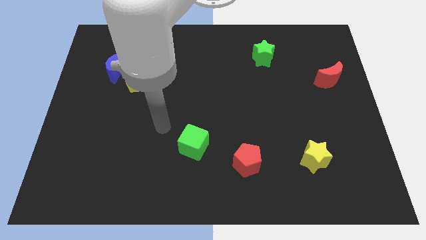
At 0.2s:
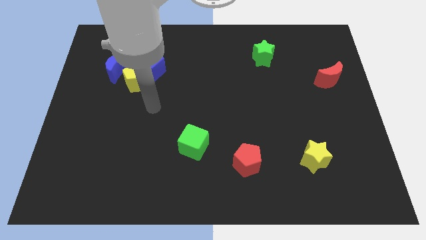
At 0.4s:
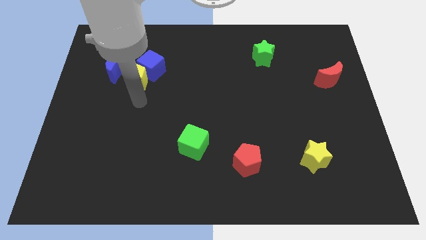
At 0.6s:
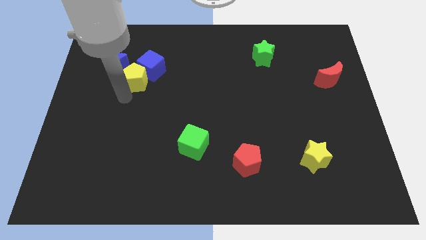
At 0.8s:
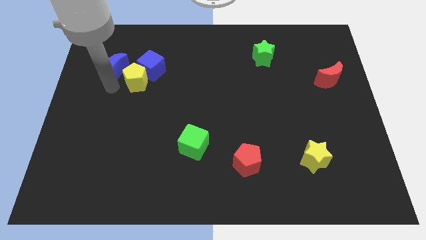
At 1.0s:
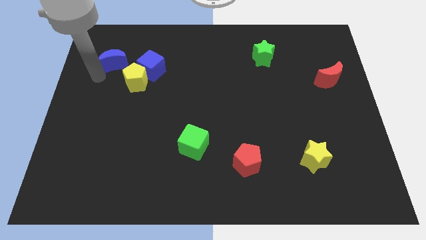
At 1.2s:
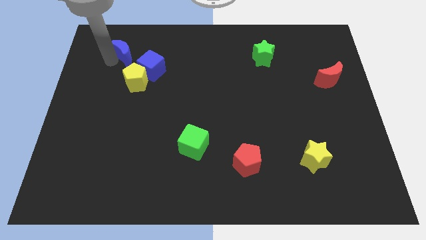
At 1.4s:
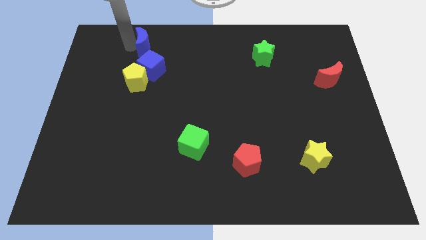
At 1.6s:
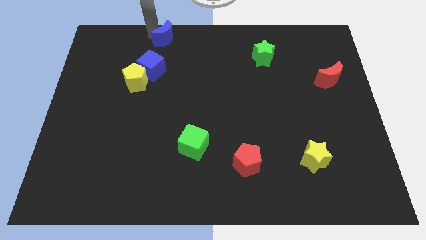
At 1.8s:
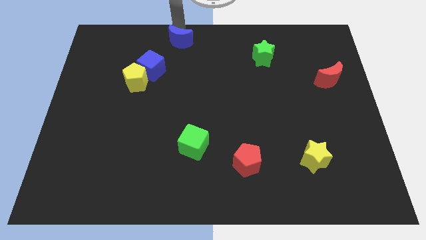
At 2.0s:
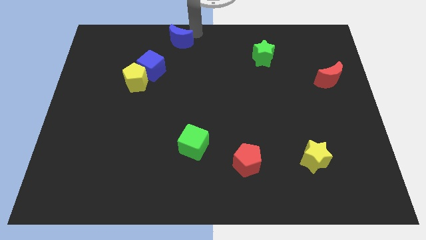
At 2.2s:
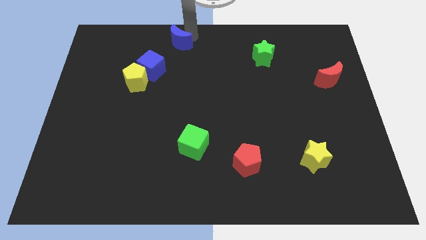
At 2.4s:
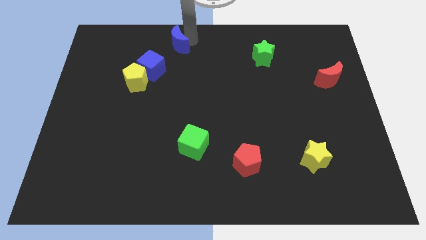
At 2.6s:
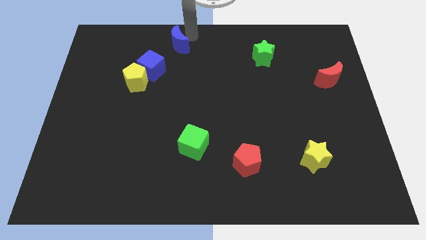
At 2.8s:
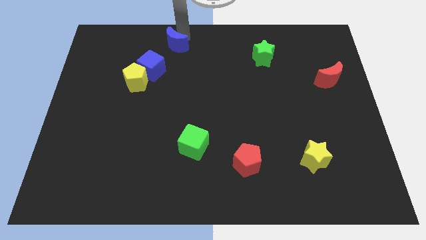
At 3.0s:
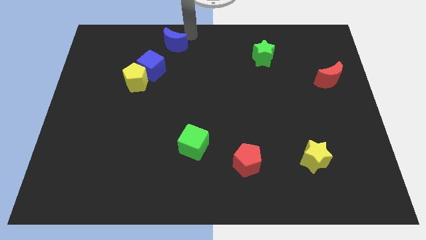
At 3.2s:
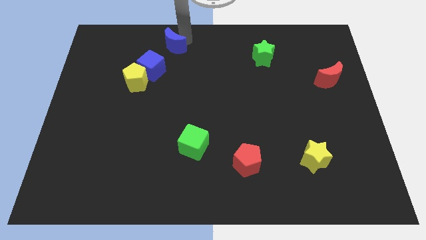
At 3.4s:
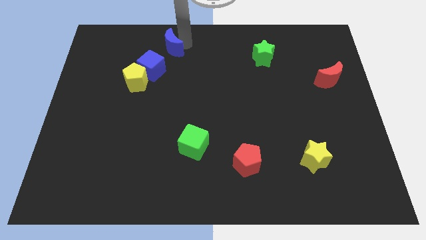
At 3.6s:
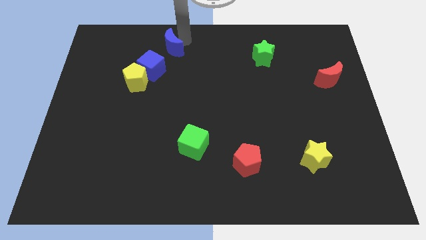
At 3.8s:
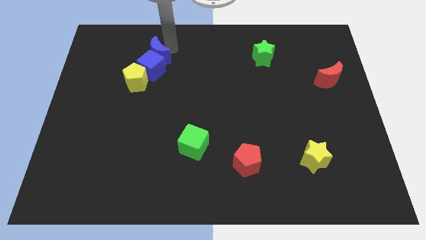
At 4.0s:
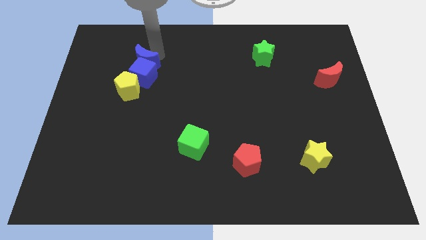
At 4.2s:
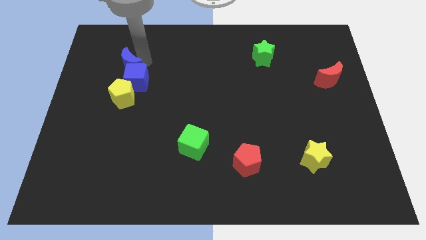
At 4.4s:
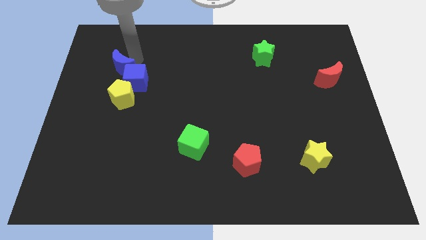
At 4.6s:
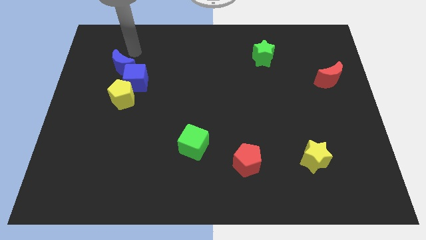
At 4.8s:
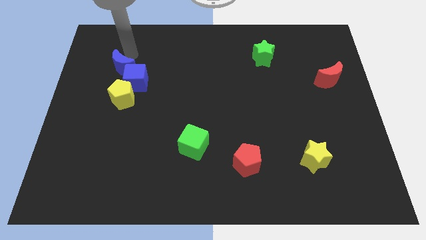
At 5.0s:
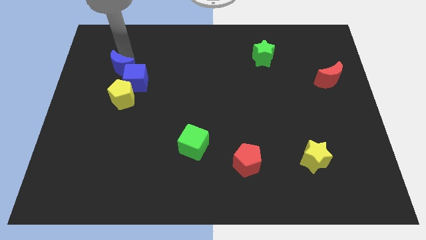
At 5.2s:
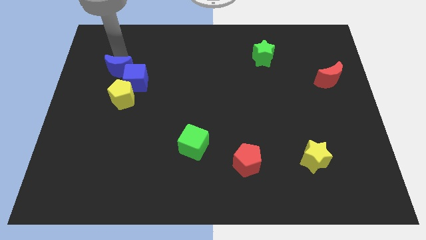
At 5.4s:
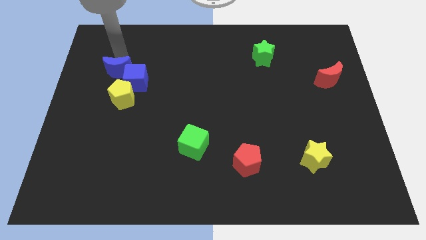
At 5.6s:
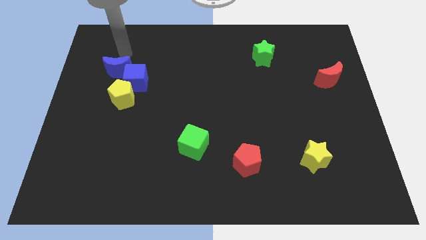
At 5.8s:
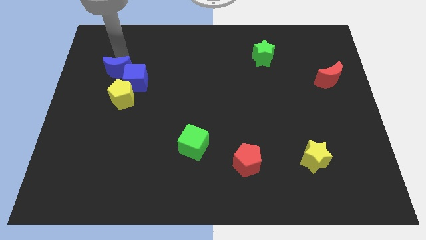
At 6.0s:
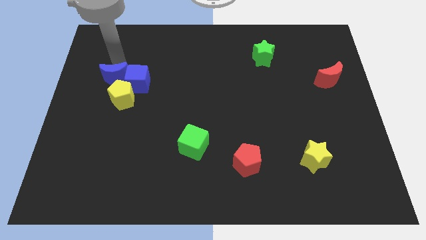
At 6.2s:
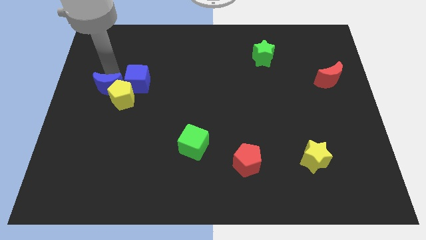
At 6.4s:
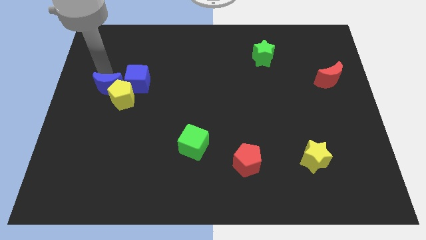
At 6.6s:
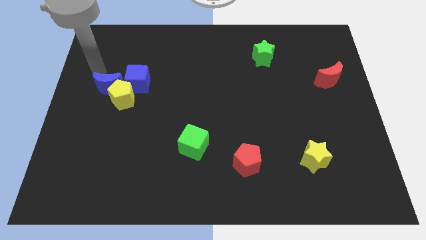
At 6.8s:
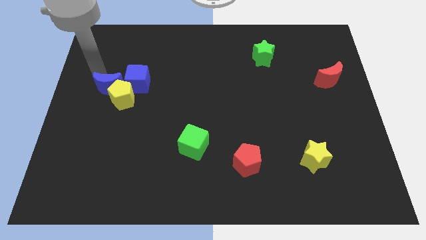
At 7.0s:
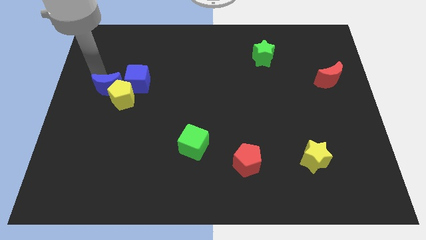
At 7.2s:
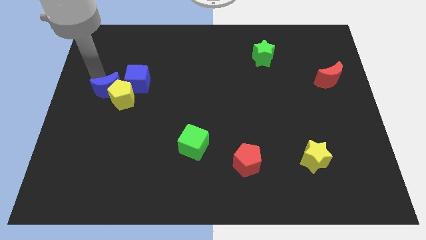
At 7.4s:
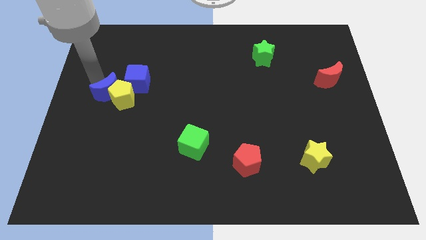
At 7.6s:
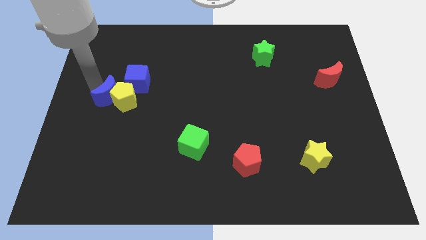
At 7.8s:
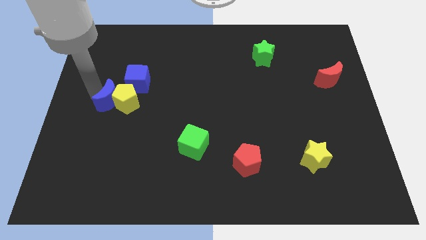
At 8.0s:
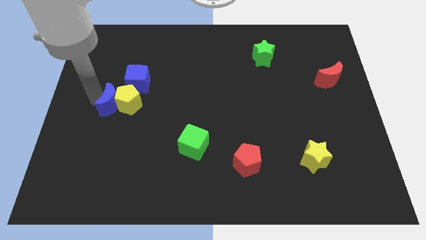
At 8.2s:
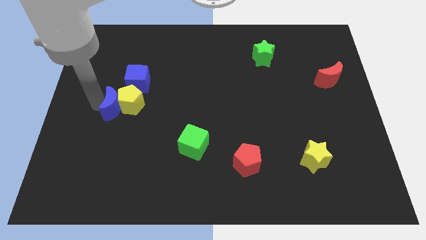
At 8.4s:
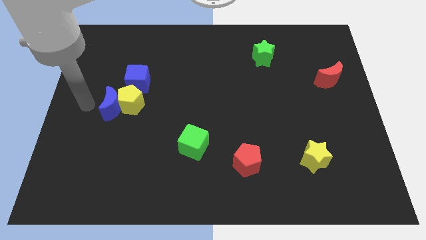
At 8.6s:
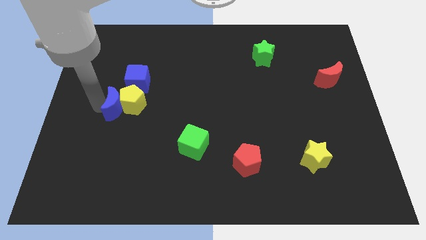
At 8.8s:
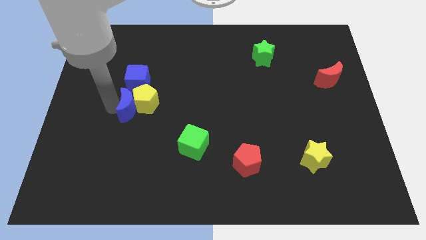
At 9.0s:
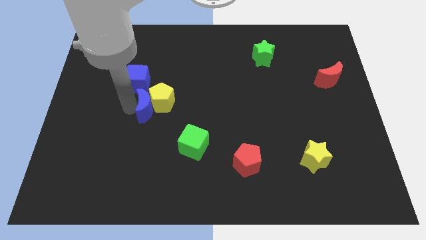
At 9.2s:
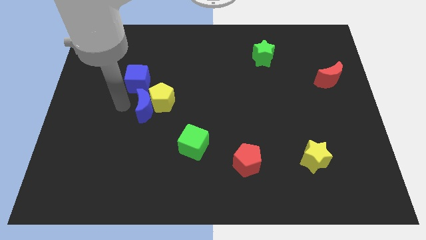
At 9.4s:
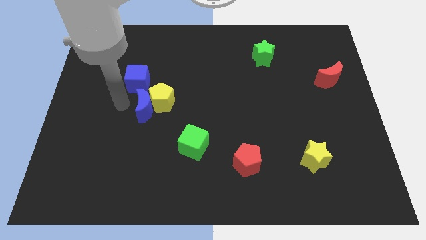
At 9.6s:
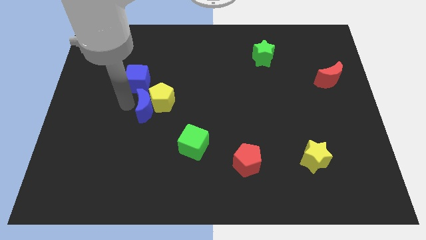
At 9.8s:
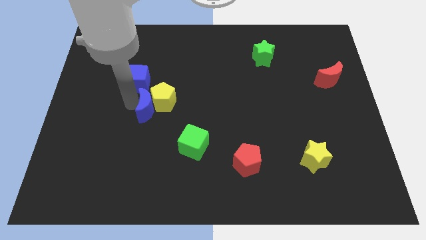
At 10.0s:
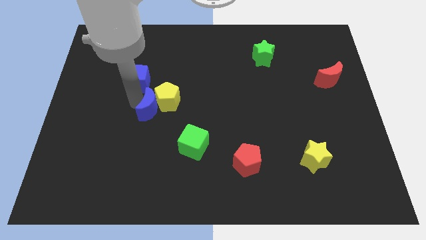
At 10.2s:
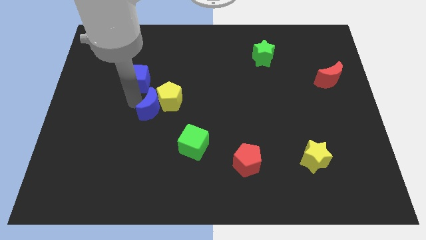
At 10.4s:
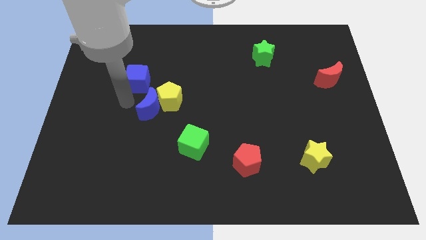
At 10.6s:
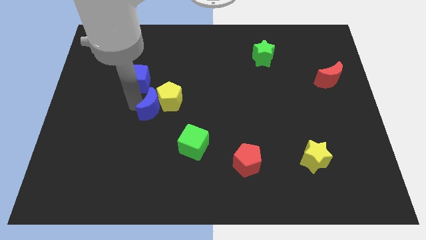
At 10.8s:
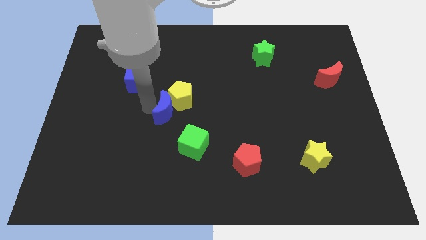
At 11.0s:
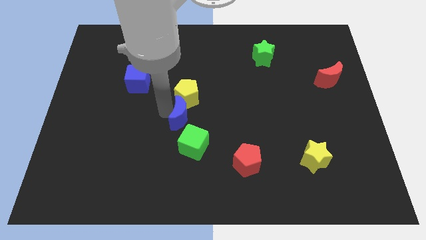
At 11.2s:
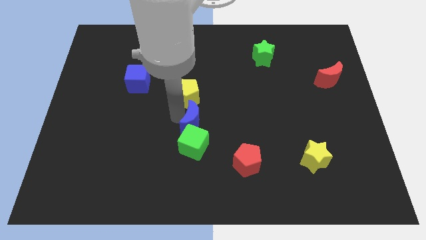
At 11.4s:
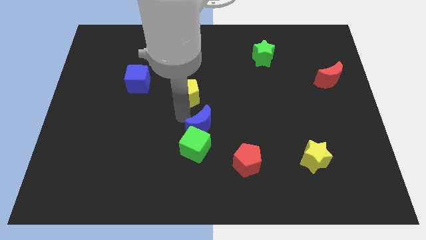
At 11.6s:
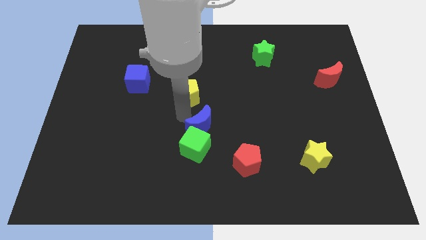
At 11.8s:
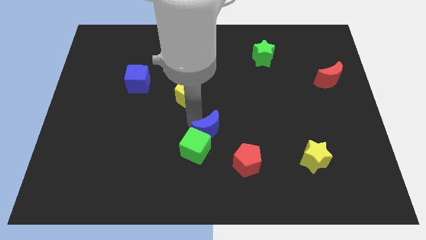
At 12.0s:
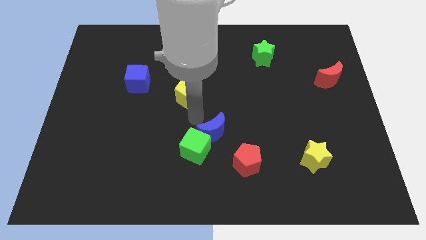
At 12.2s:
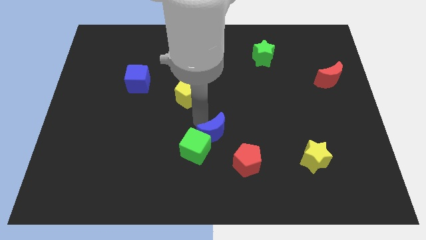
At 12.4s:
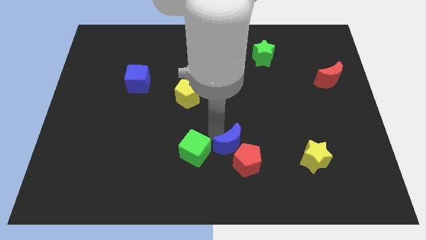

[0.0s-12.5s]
slide the blue moon to the red pentagon

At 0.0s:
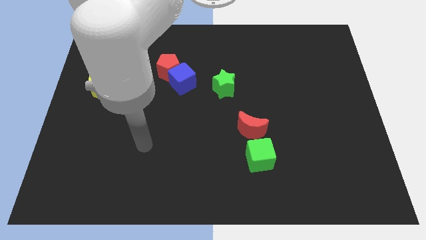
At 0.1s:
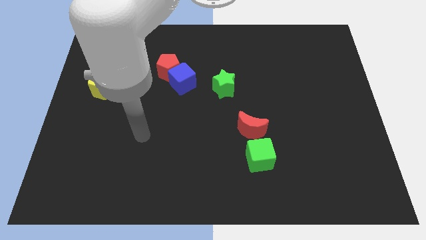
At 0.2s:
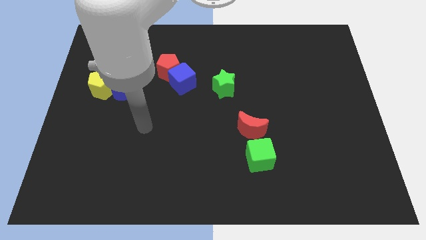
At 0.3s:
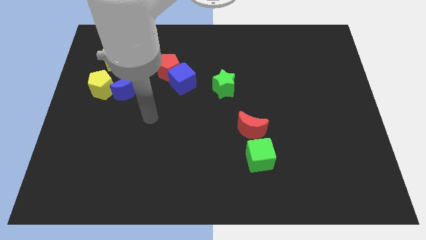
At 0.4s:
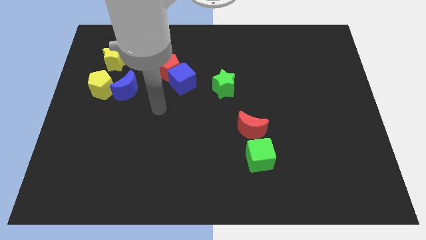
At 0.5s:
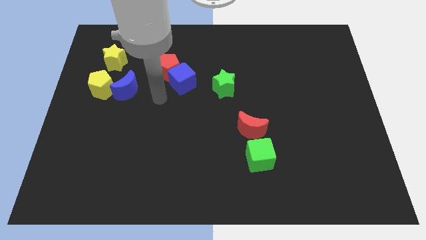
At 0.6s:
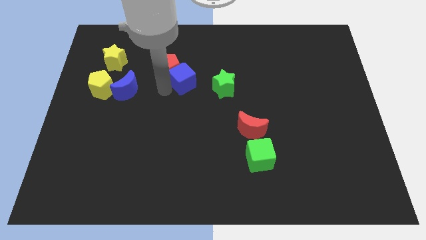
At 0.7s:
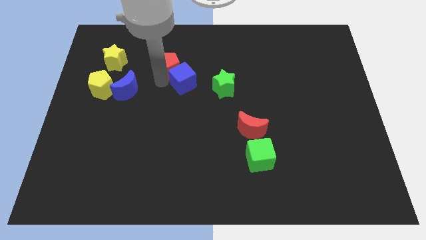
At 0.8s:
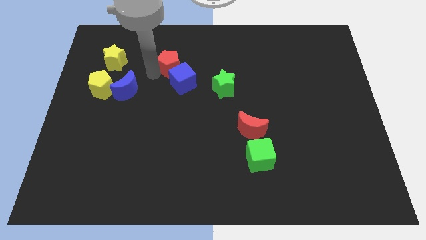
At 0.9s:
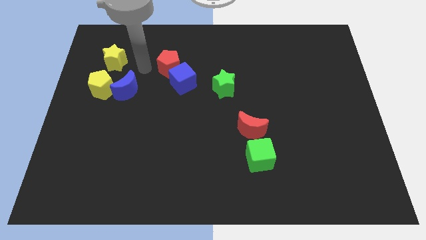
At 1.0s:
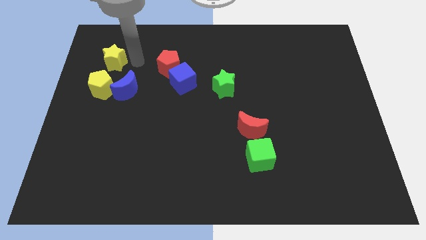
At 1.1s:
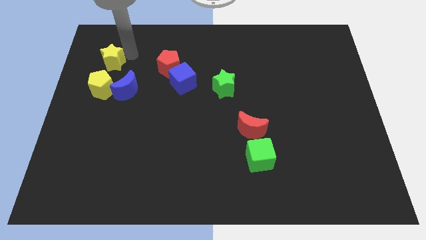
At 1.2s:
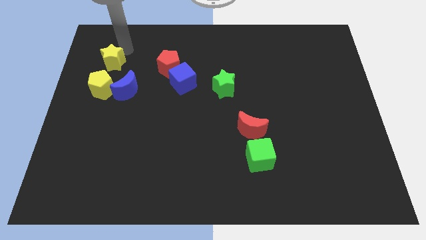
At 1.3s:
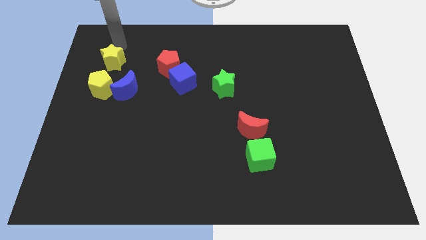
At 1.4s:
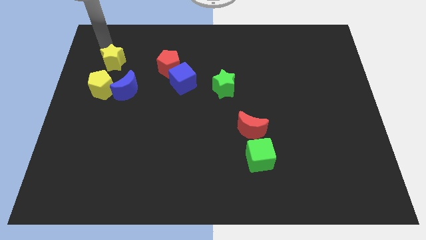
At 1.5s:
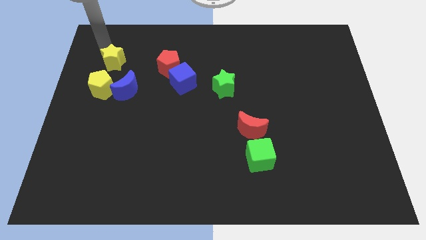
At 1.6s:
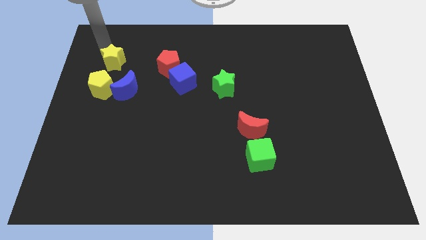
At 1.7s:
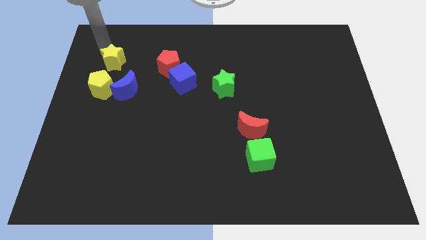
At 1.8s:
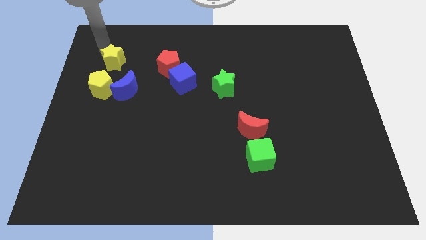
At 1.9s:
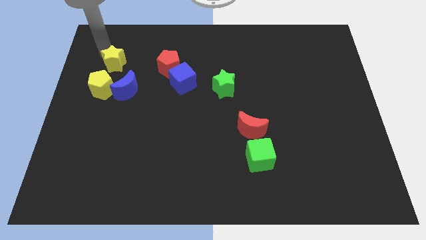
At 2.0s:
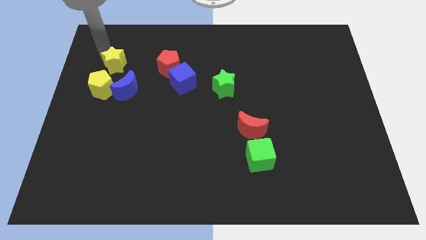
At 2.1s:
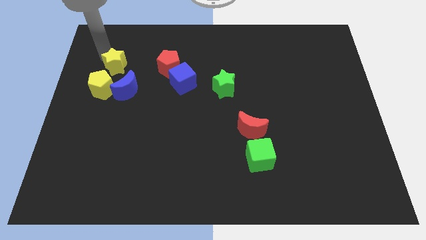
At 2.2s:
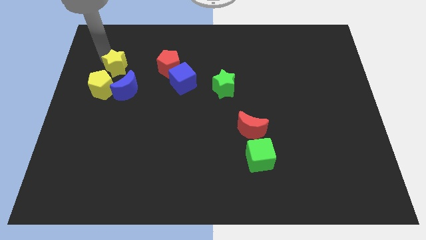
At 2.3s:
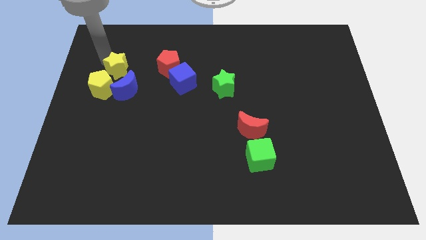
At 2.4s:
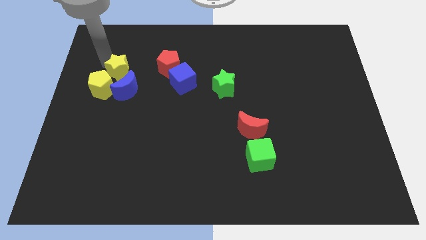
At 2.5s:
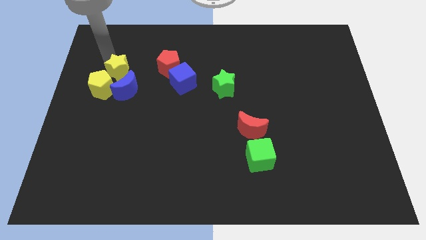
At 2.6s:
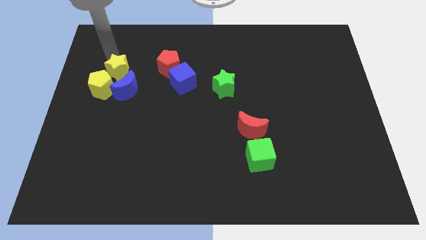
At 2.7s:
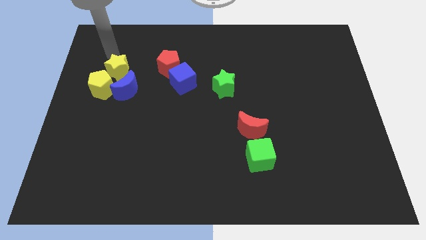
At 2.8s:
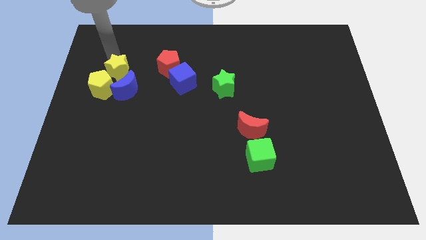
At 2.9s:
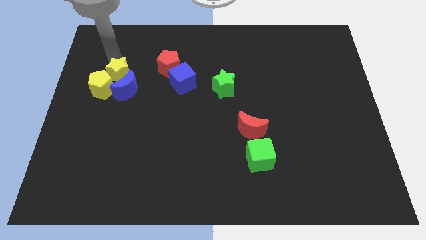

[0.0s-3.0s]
slide the yellow star close to the blue moon
